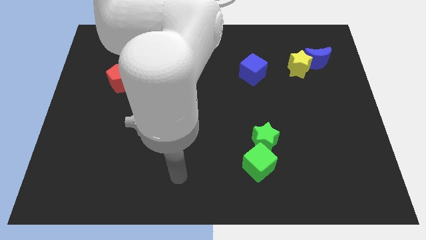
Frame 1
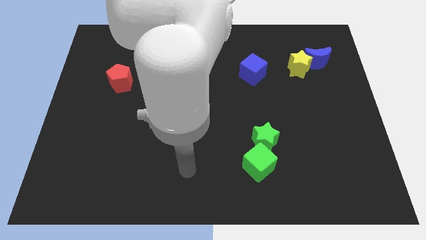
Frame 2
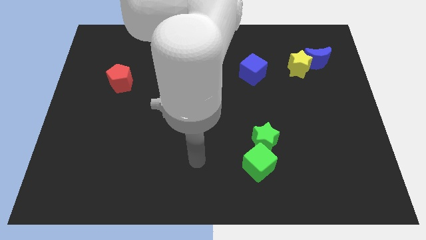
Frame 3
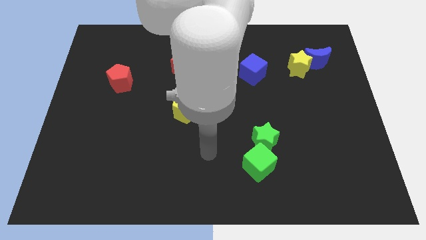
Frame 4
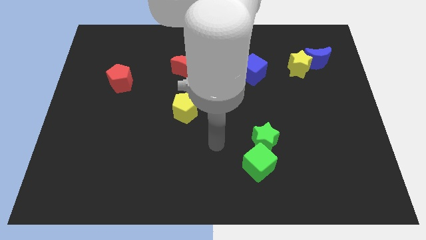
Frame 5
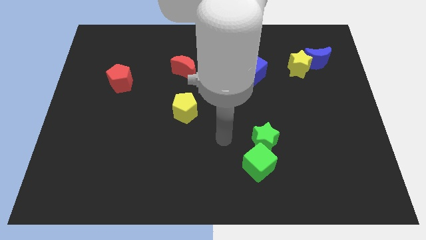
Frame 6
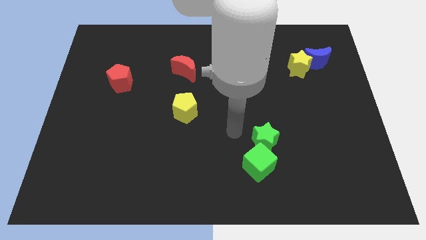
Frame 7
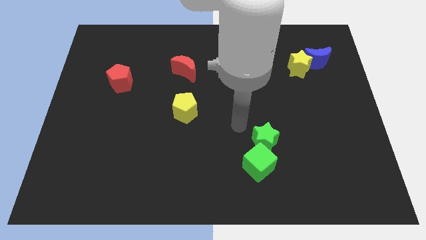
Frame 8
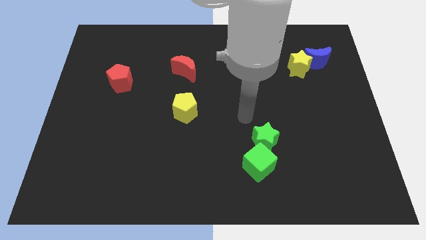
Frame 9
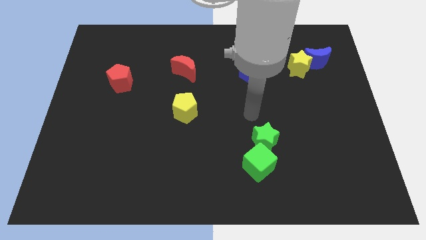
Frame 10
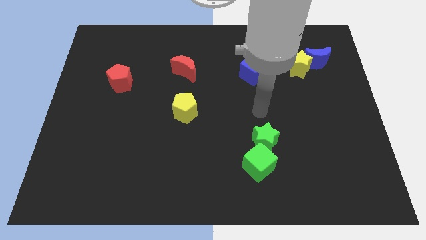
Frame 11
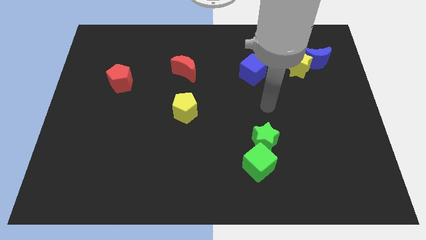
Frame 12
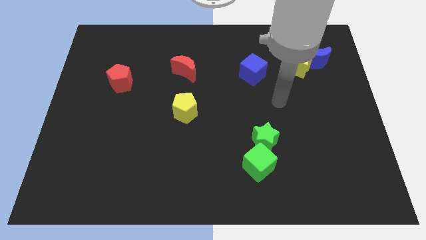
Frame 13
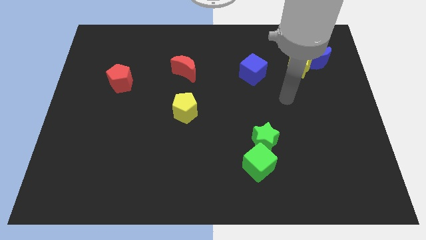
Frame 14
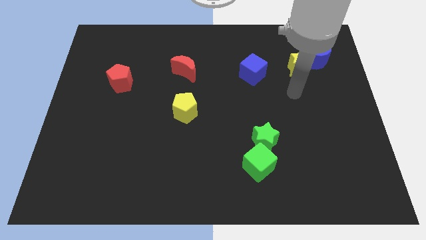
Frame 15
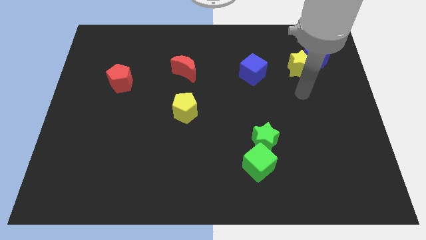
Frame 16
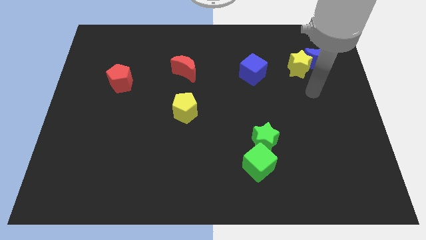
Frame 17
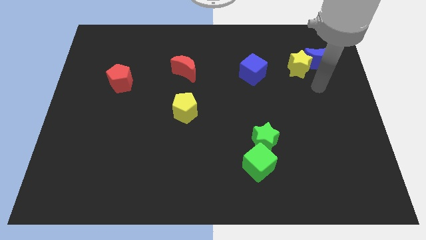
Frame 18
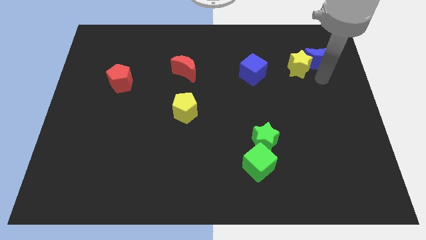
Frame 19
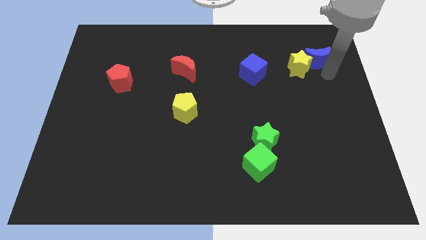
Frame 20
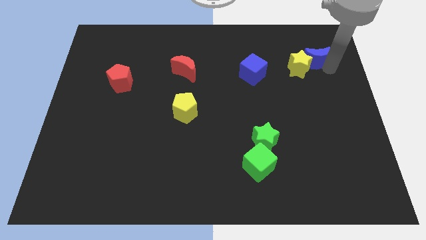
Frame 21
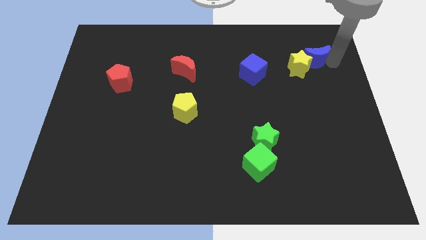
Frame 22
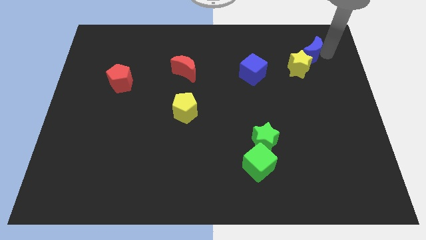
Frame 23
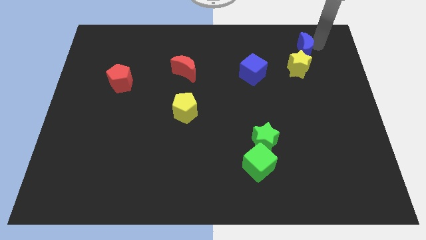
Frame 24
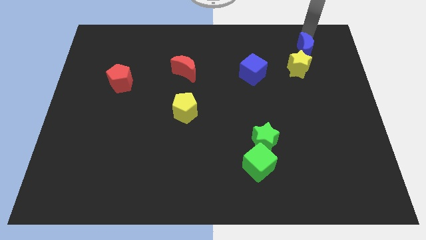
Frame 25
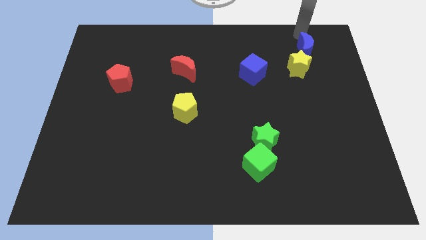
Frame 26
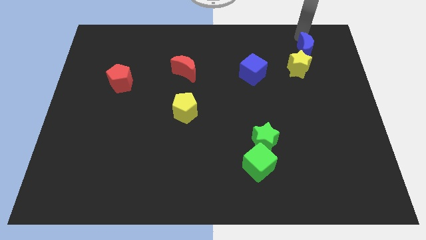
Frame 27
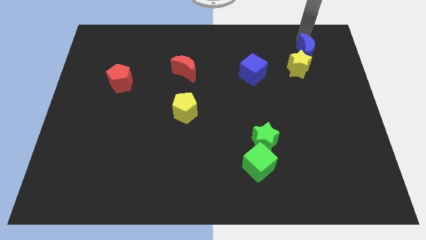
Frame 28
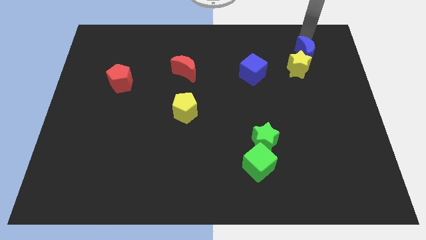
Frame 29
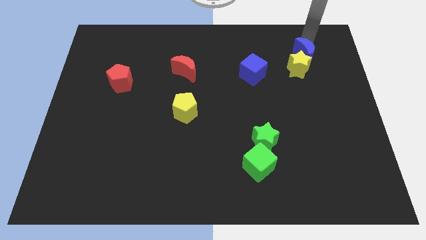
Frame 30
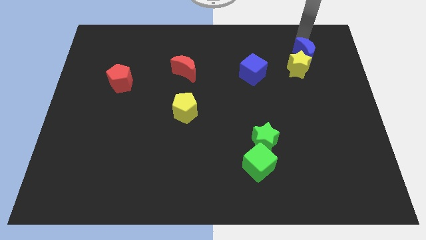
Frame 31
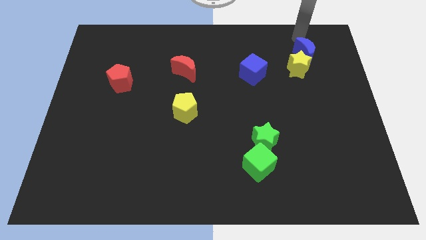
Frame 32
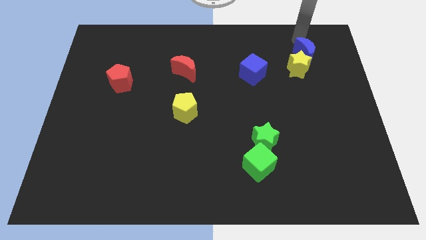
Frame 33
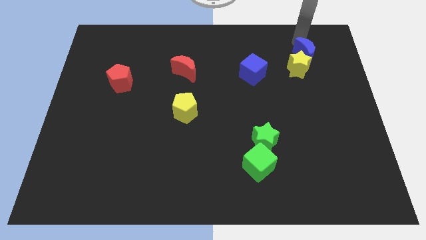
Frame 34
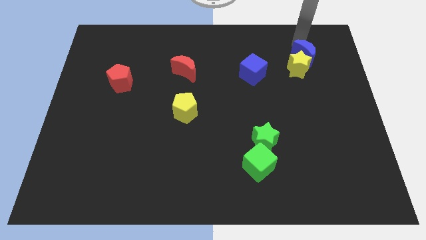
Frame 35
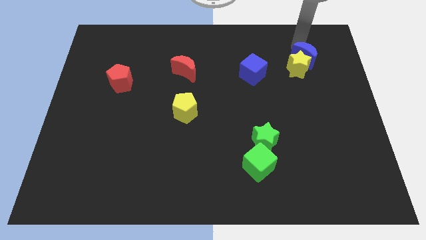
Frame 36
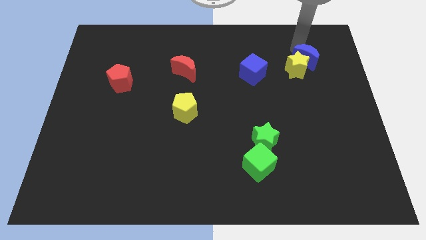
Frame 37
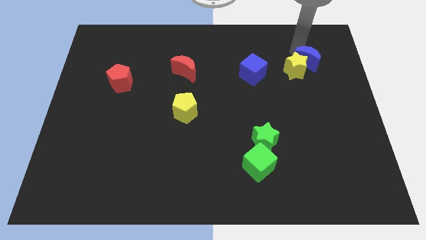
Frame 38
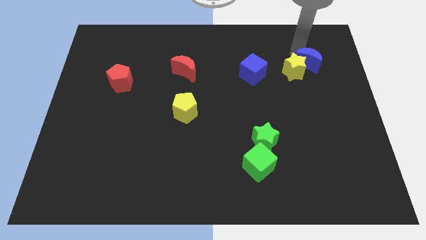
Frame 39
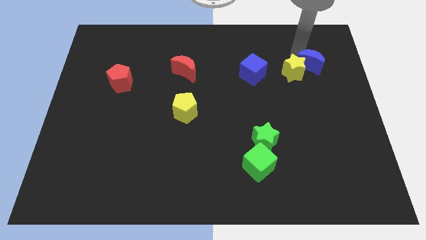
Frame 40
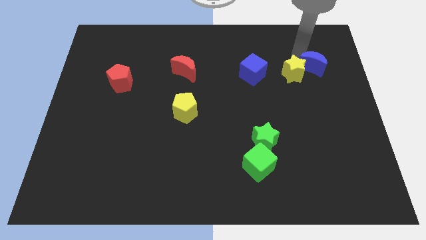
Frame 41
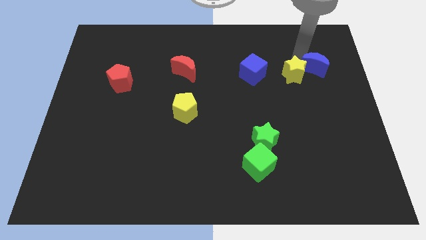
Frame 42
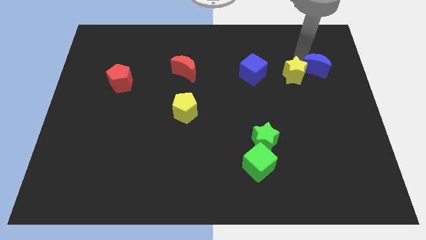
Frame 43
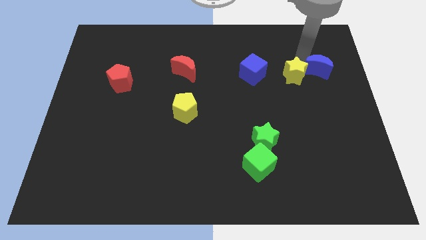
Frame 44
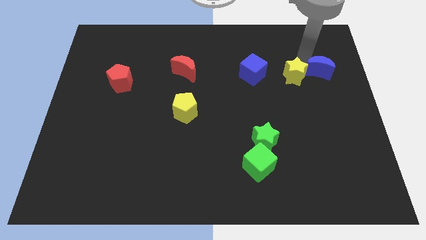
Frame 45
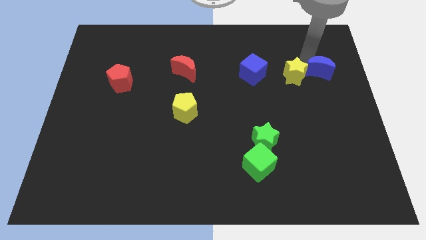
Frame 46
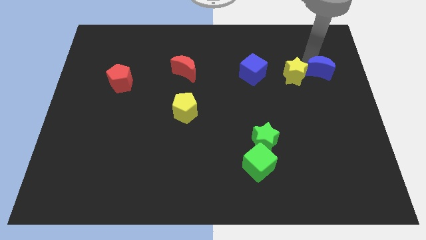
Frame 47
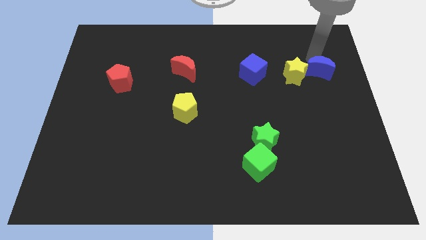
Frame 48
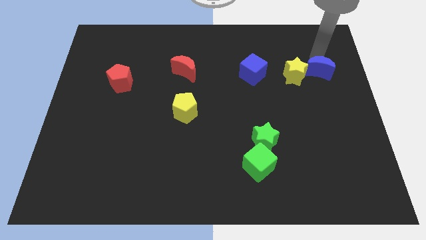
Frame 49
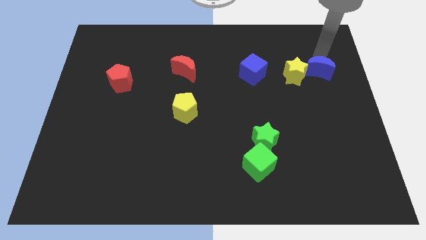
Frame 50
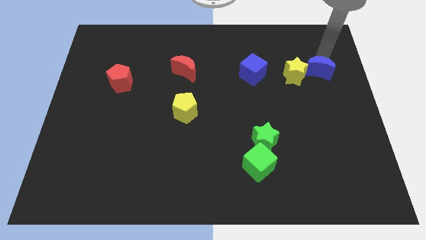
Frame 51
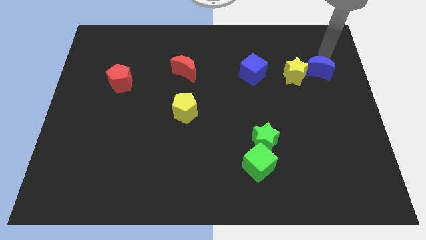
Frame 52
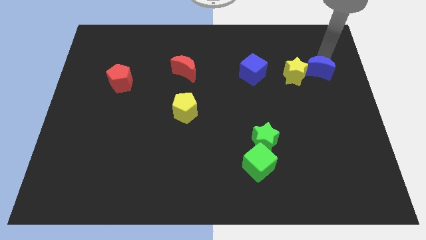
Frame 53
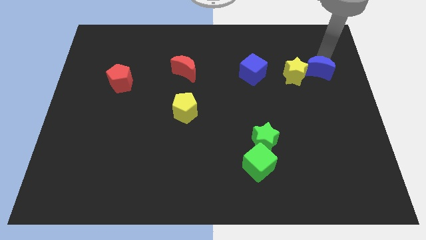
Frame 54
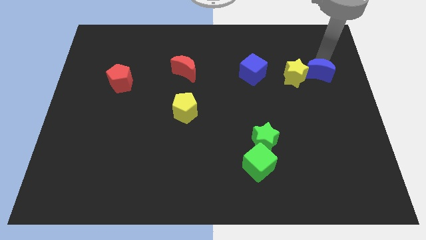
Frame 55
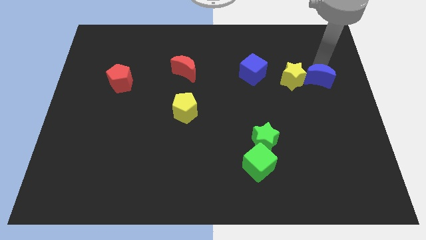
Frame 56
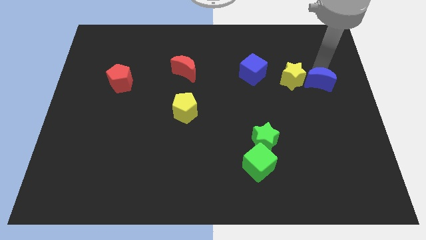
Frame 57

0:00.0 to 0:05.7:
slightly move the blue moon down

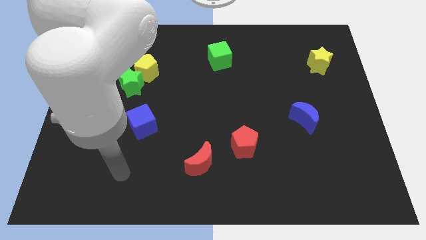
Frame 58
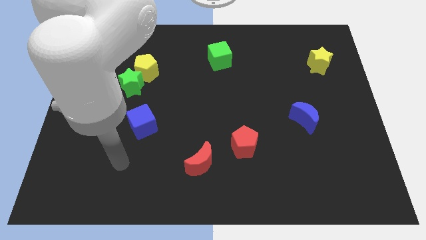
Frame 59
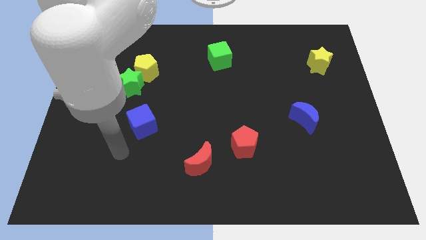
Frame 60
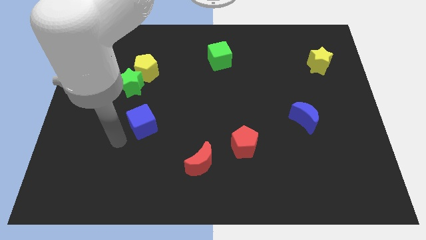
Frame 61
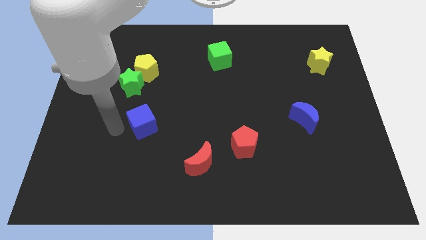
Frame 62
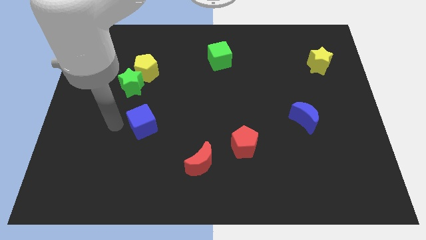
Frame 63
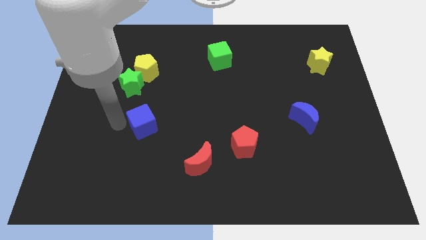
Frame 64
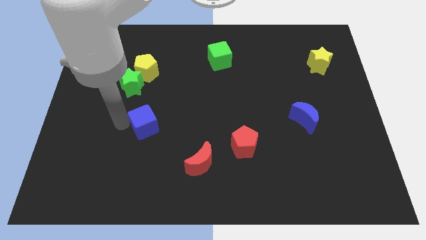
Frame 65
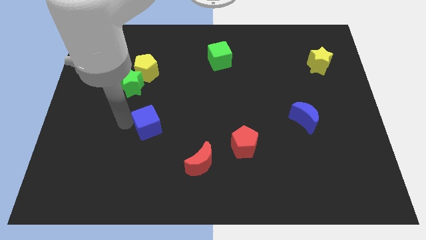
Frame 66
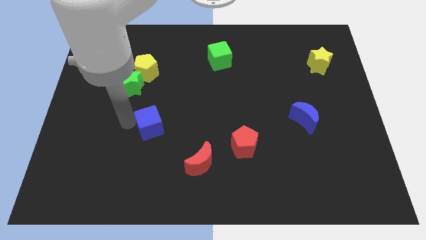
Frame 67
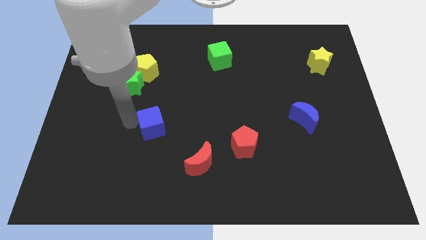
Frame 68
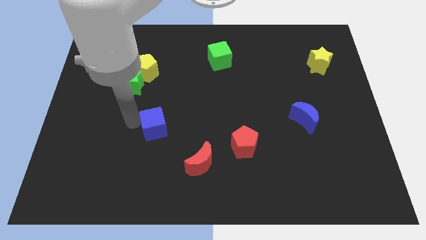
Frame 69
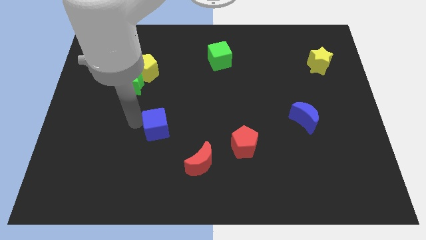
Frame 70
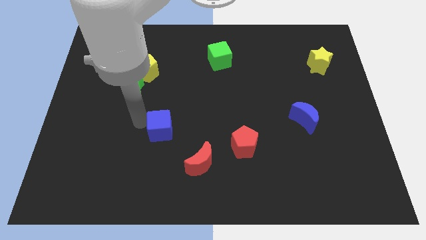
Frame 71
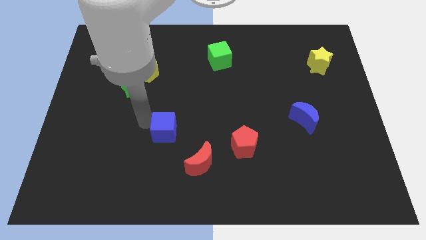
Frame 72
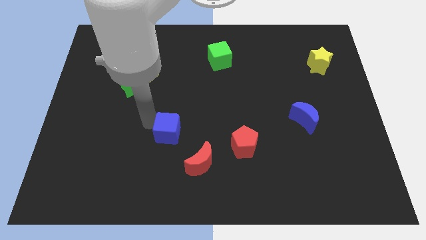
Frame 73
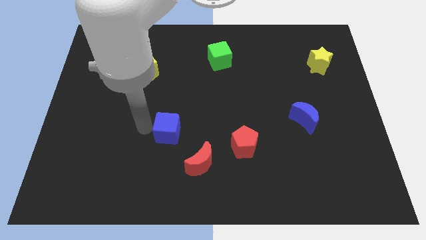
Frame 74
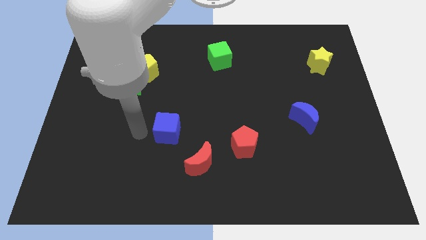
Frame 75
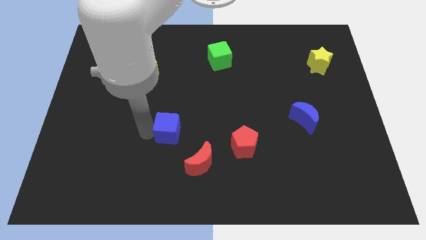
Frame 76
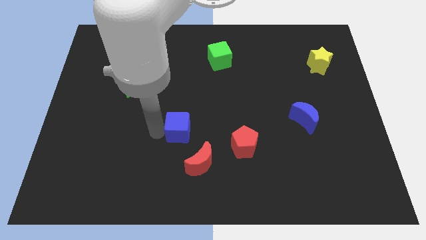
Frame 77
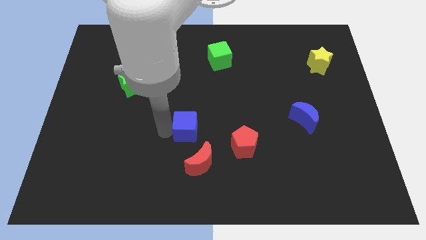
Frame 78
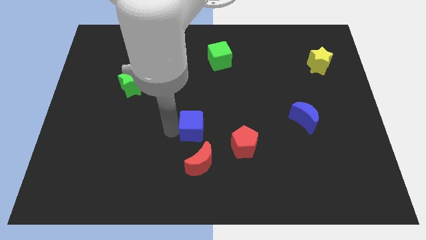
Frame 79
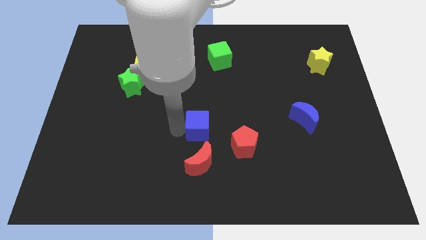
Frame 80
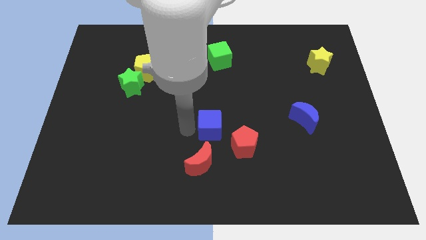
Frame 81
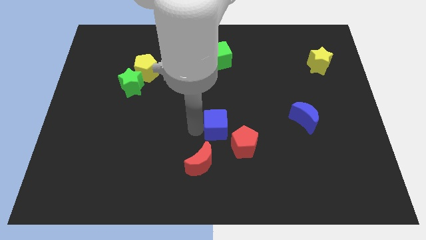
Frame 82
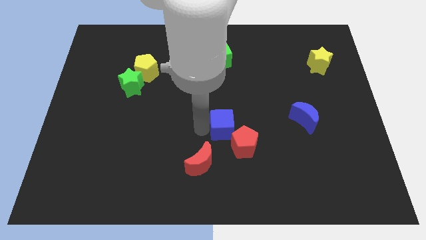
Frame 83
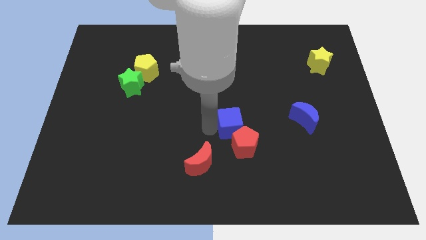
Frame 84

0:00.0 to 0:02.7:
push the blue cube right
